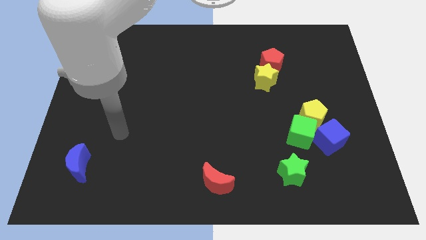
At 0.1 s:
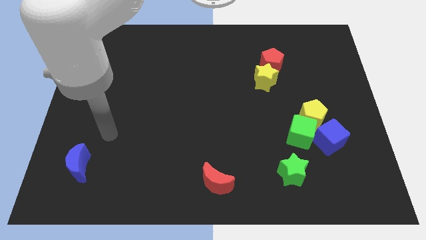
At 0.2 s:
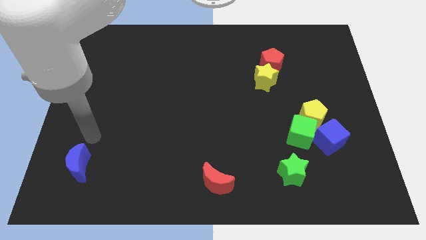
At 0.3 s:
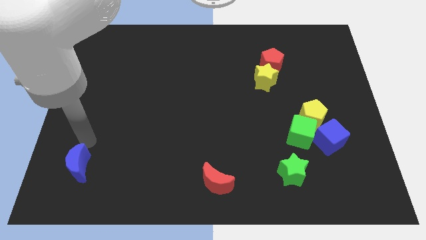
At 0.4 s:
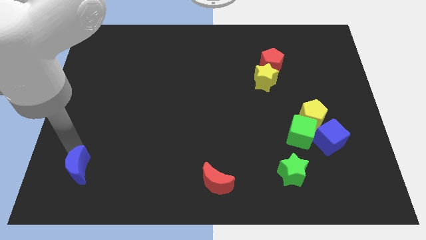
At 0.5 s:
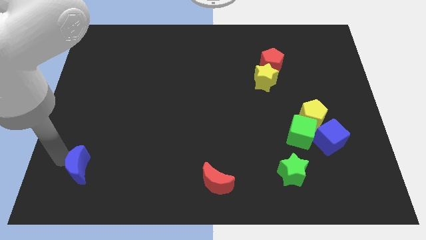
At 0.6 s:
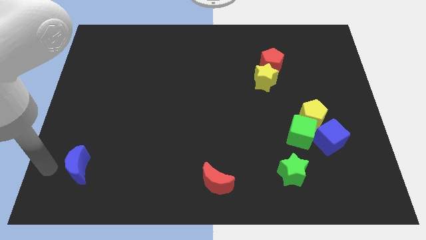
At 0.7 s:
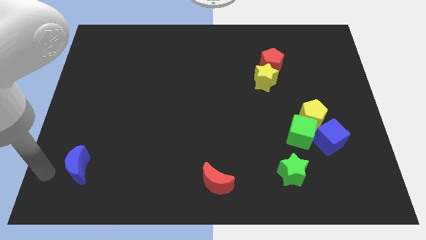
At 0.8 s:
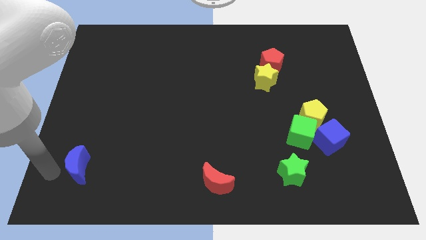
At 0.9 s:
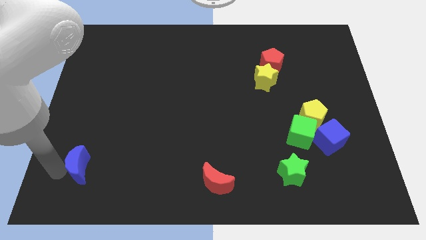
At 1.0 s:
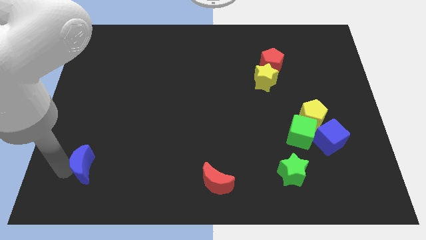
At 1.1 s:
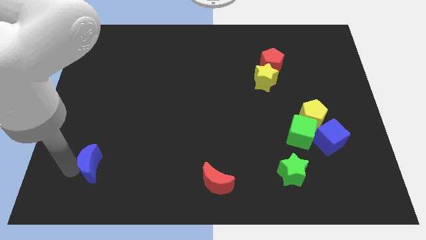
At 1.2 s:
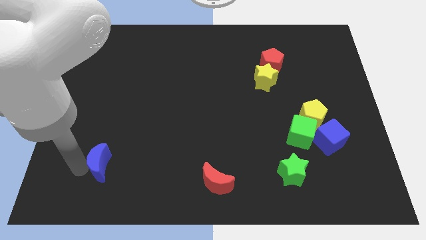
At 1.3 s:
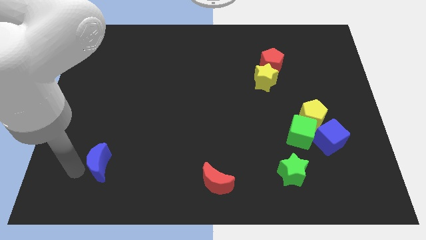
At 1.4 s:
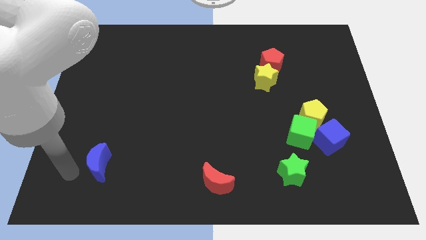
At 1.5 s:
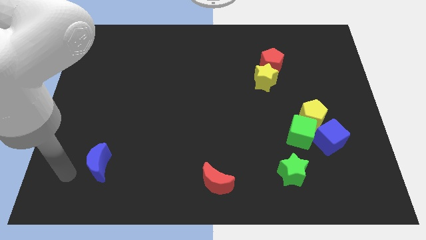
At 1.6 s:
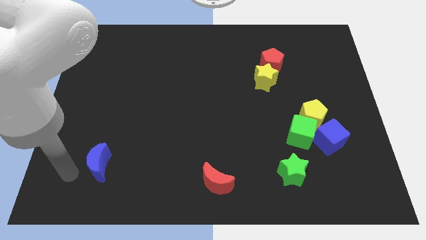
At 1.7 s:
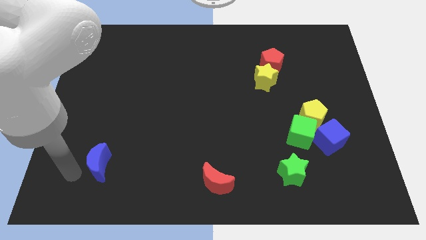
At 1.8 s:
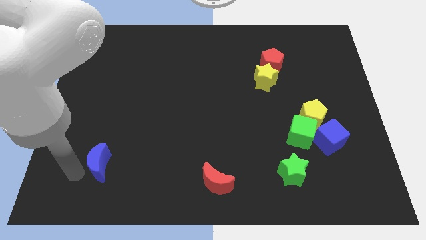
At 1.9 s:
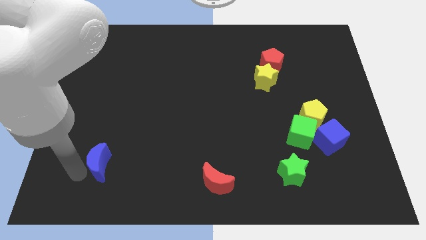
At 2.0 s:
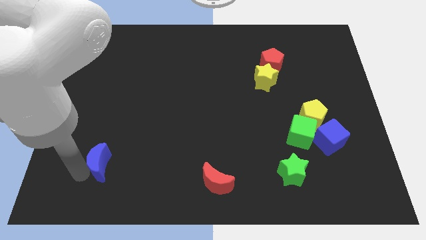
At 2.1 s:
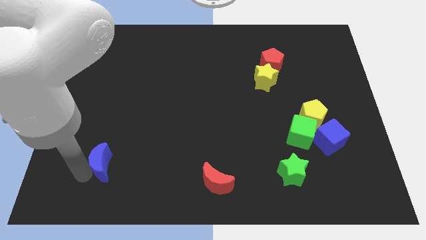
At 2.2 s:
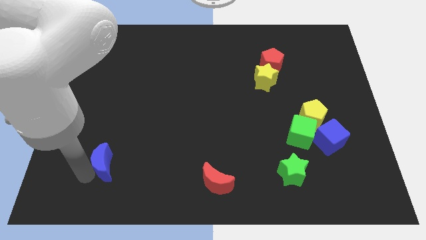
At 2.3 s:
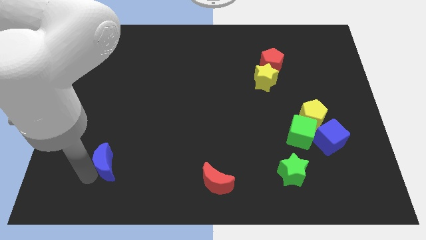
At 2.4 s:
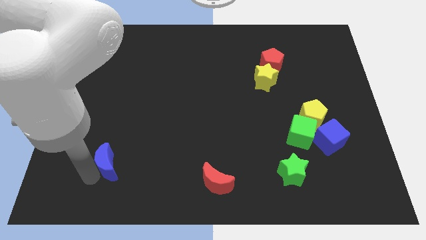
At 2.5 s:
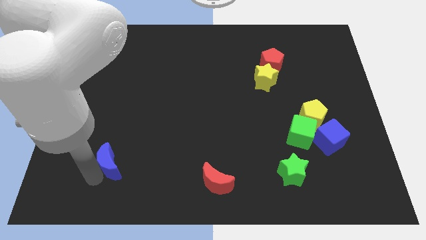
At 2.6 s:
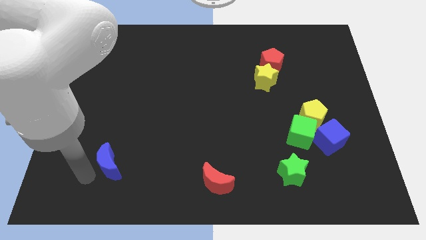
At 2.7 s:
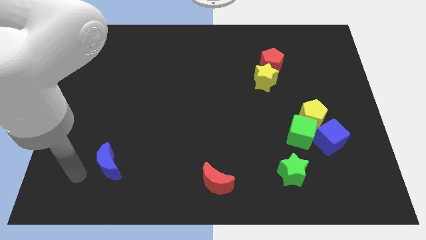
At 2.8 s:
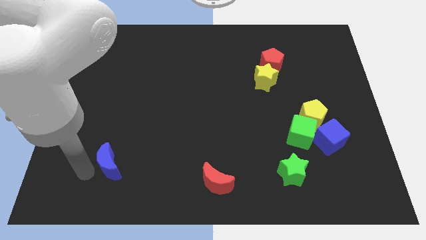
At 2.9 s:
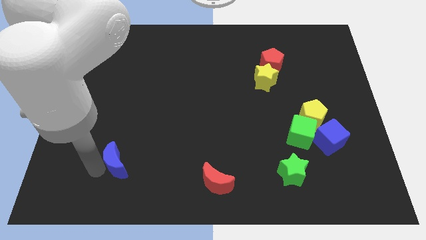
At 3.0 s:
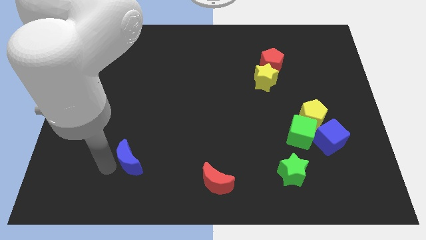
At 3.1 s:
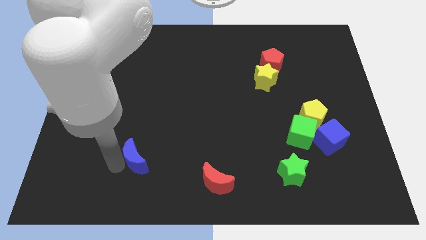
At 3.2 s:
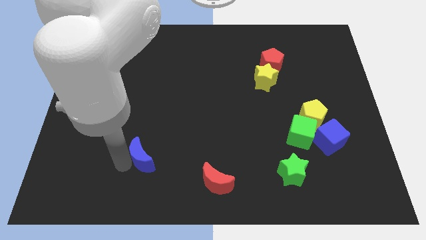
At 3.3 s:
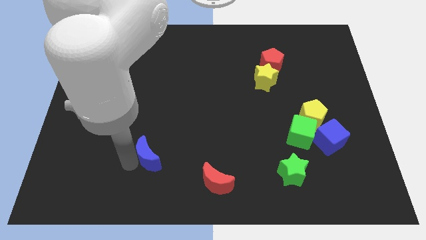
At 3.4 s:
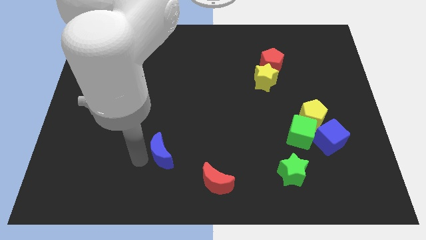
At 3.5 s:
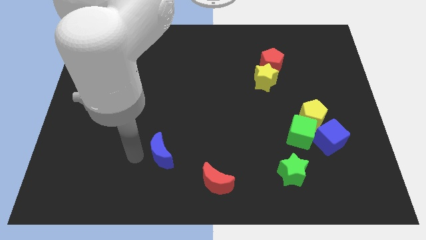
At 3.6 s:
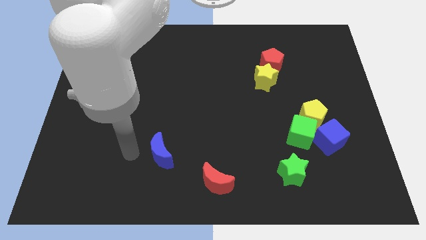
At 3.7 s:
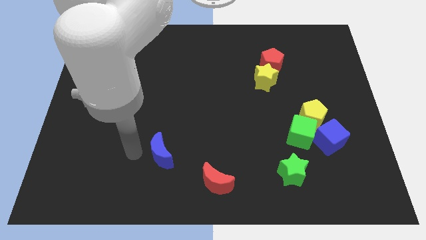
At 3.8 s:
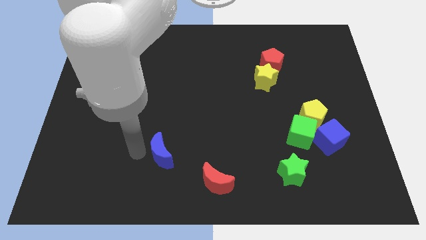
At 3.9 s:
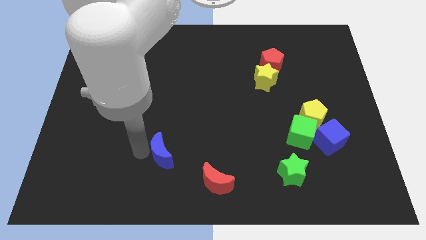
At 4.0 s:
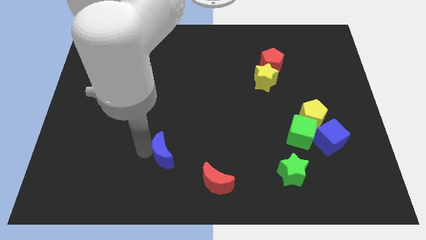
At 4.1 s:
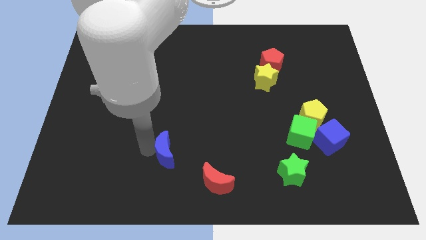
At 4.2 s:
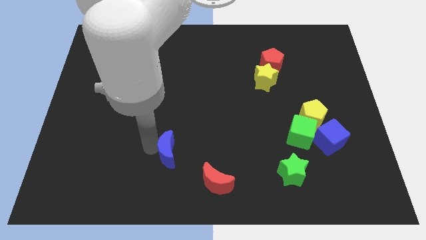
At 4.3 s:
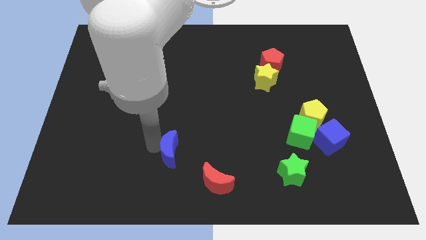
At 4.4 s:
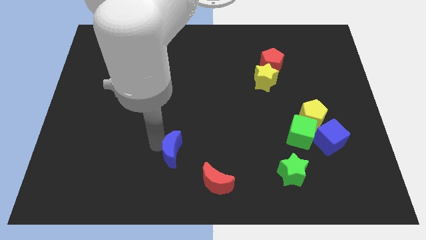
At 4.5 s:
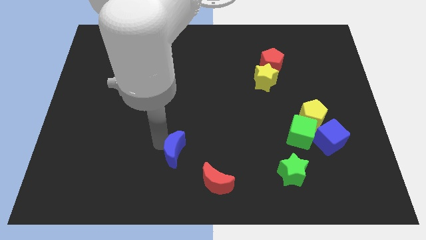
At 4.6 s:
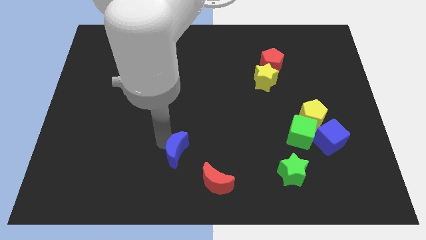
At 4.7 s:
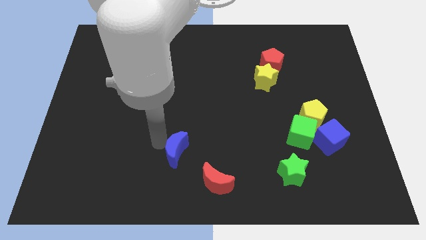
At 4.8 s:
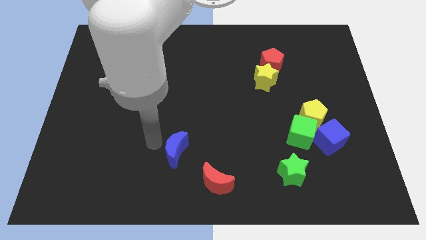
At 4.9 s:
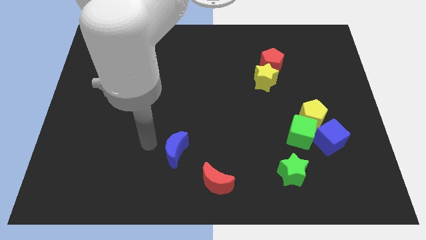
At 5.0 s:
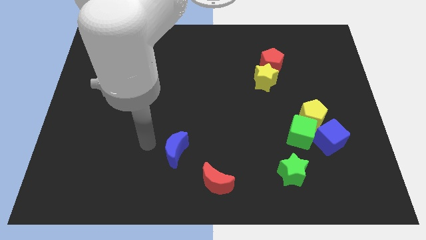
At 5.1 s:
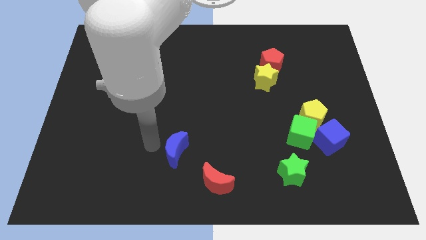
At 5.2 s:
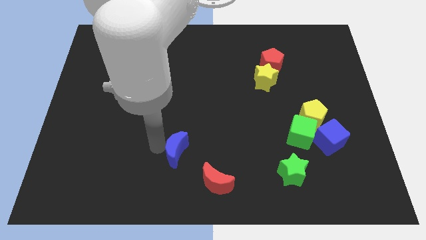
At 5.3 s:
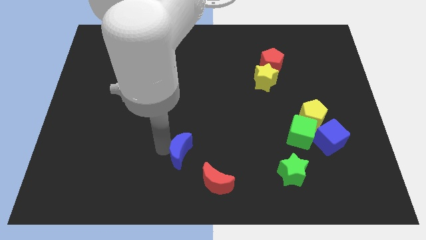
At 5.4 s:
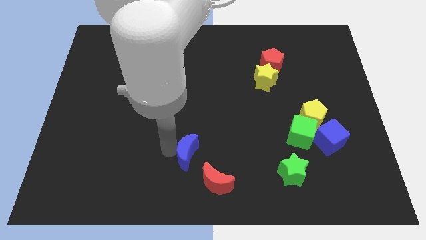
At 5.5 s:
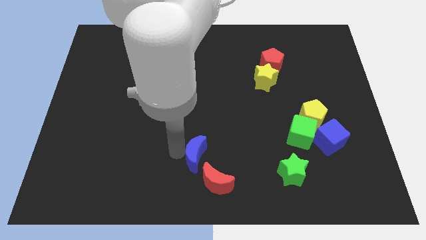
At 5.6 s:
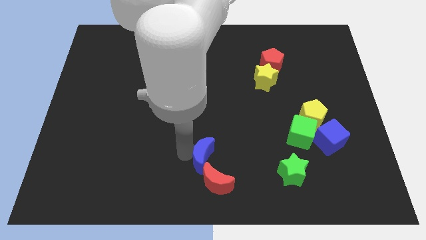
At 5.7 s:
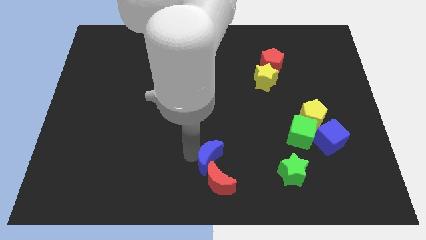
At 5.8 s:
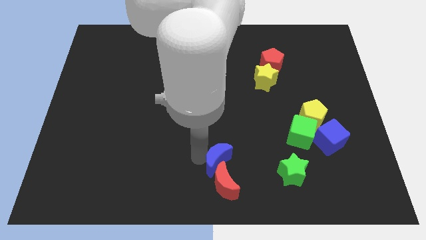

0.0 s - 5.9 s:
slide the blue moon diagonally up and to the right of the red moon

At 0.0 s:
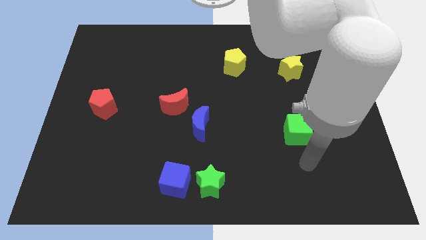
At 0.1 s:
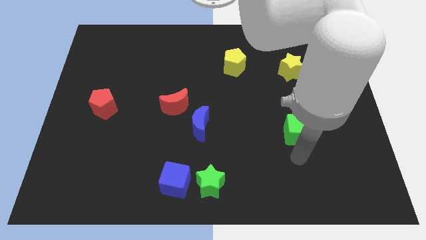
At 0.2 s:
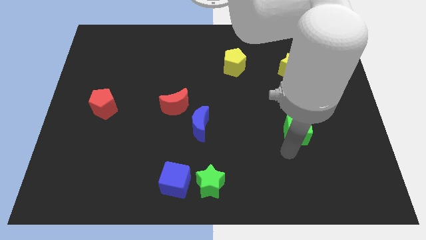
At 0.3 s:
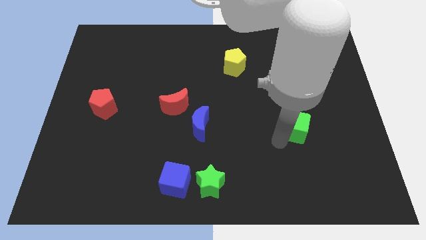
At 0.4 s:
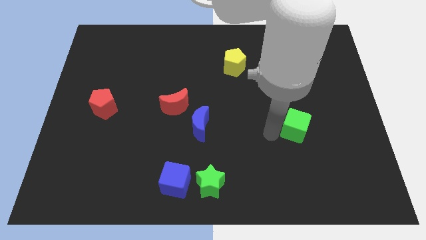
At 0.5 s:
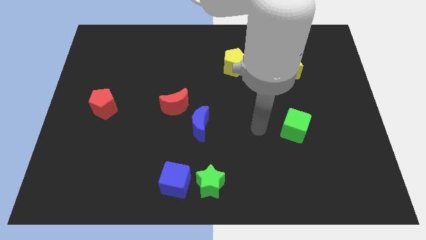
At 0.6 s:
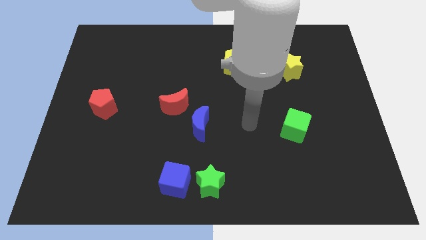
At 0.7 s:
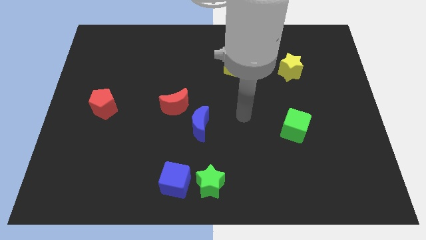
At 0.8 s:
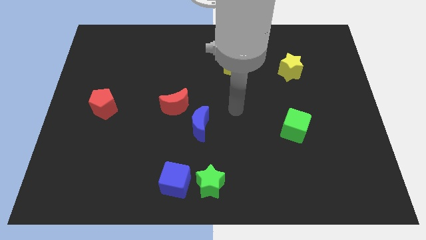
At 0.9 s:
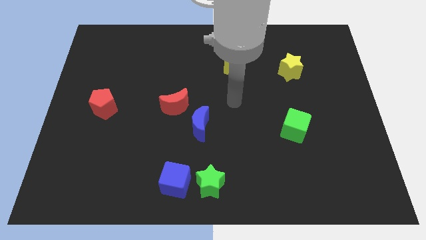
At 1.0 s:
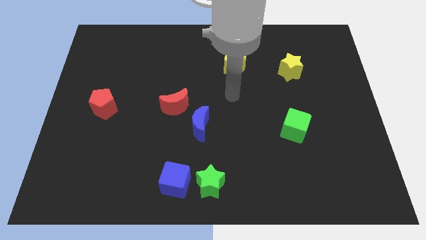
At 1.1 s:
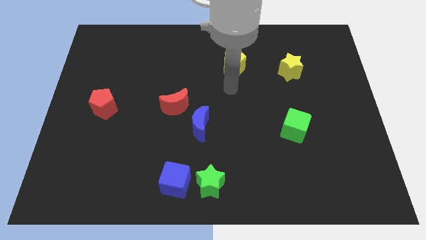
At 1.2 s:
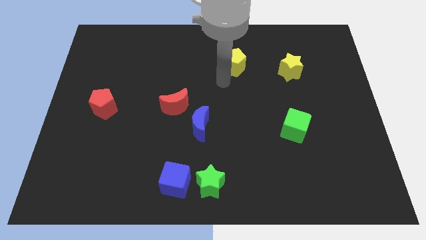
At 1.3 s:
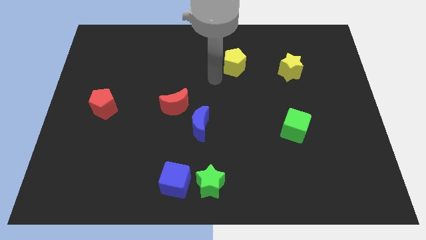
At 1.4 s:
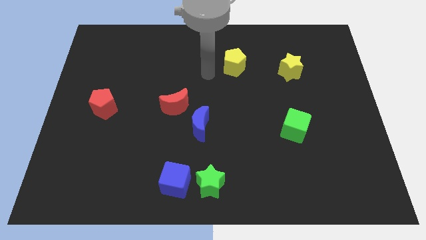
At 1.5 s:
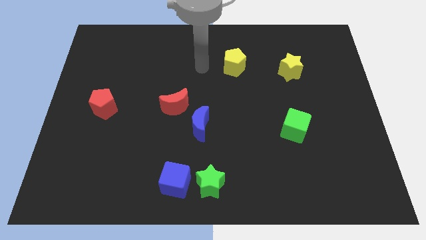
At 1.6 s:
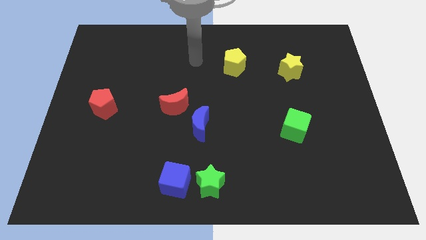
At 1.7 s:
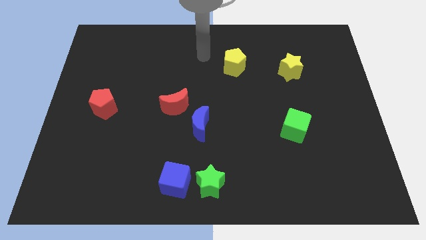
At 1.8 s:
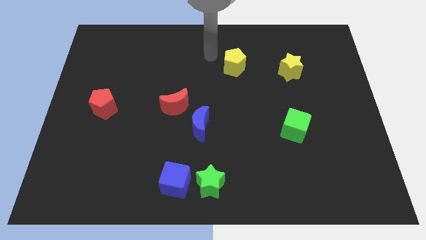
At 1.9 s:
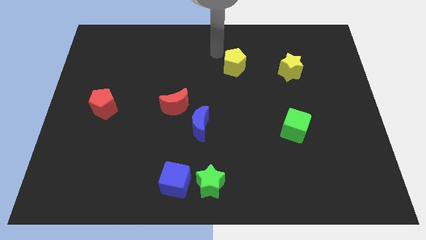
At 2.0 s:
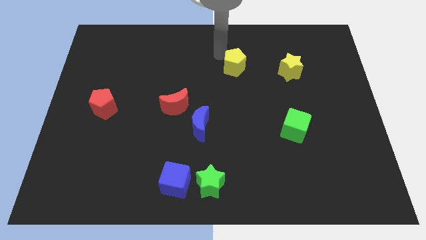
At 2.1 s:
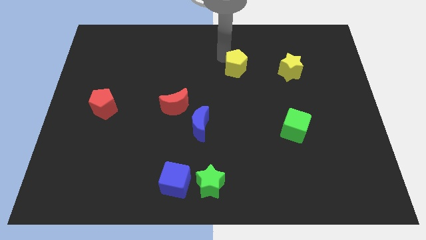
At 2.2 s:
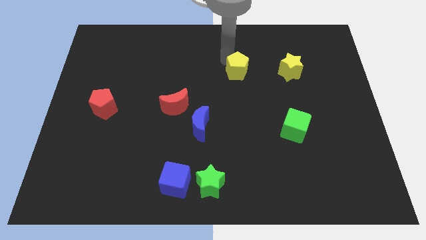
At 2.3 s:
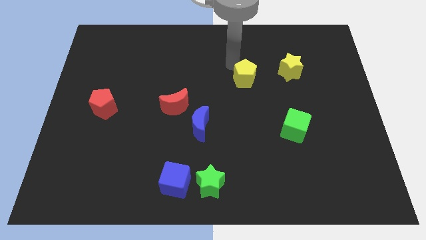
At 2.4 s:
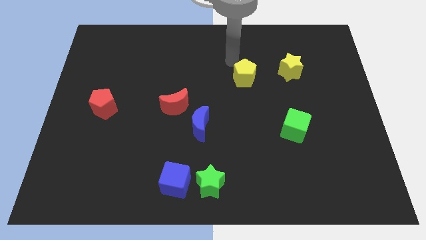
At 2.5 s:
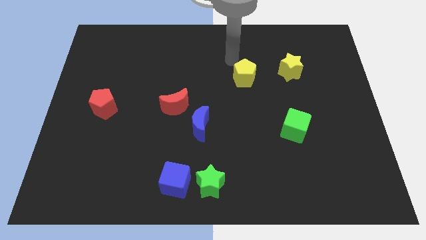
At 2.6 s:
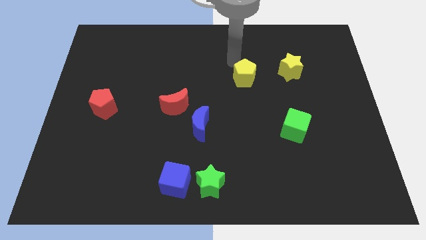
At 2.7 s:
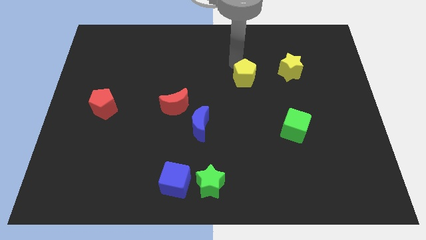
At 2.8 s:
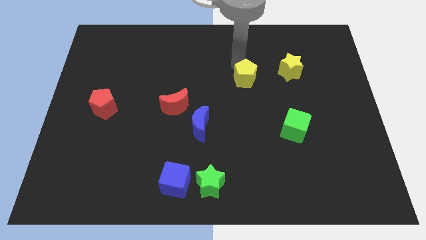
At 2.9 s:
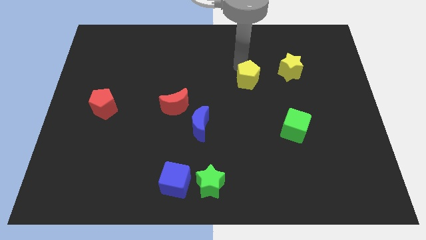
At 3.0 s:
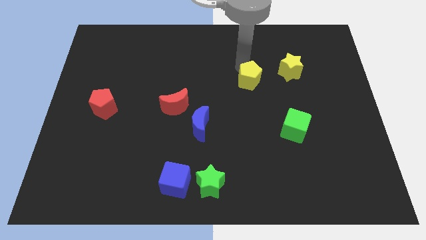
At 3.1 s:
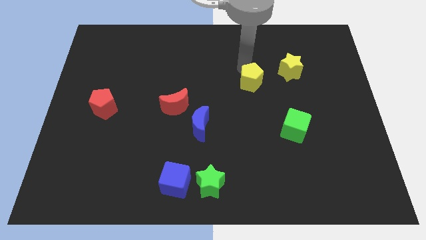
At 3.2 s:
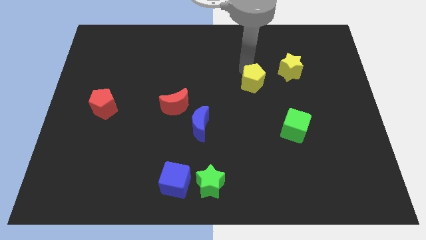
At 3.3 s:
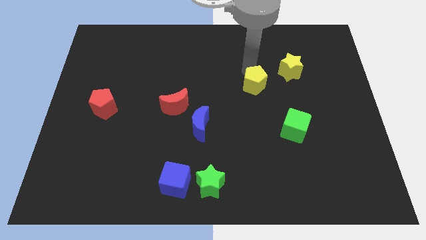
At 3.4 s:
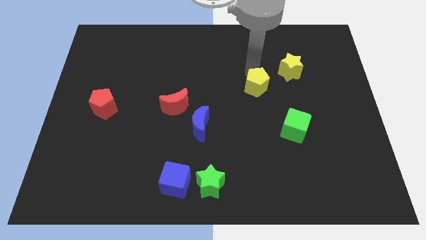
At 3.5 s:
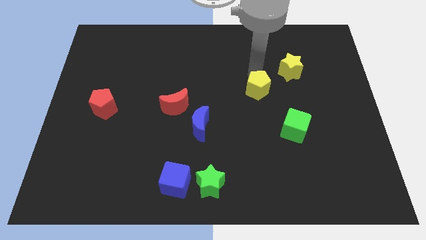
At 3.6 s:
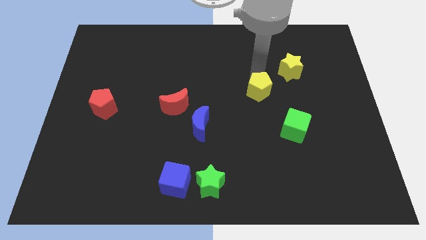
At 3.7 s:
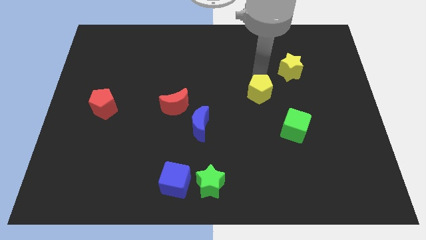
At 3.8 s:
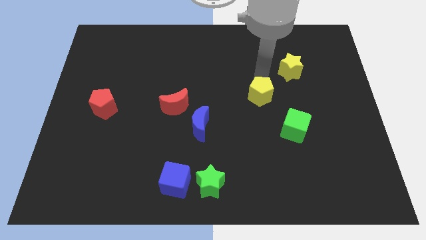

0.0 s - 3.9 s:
push the yellow pentagon to the top left of the green cube
